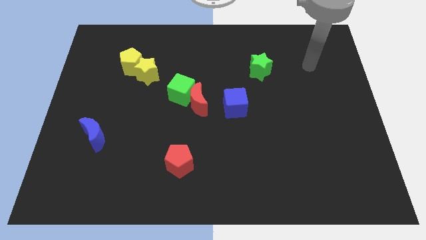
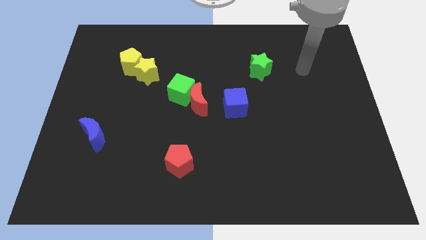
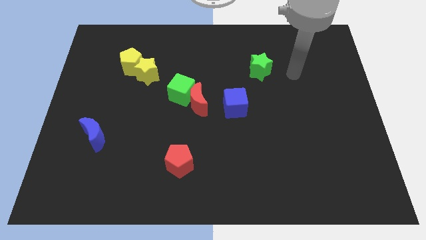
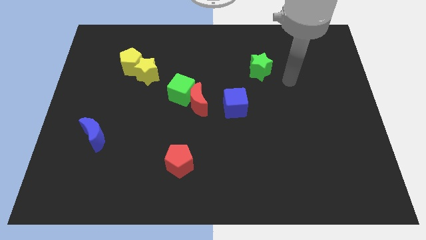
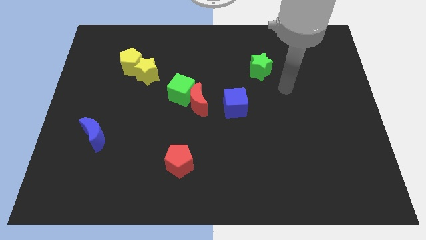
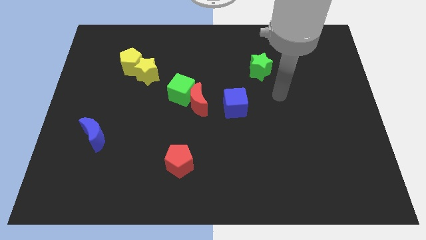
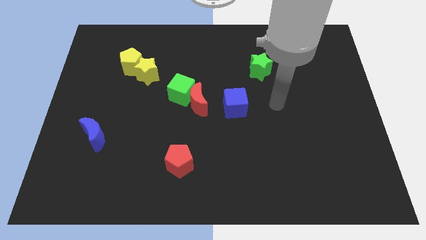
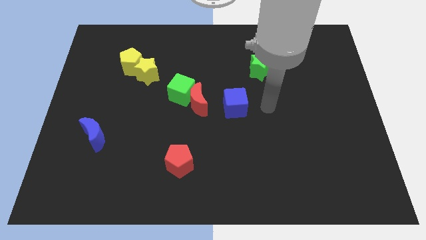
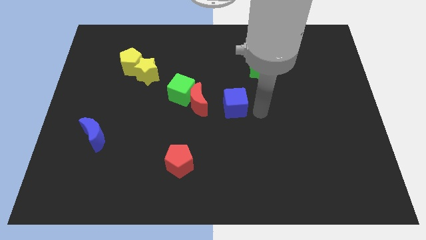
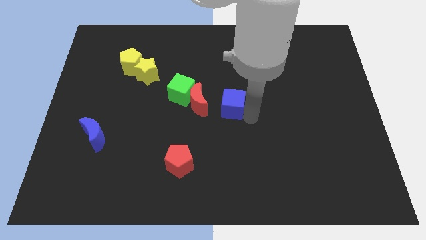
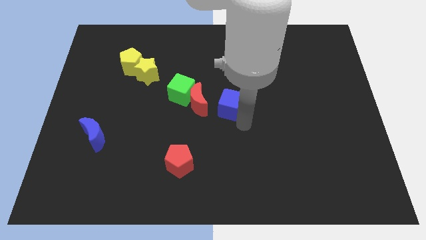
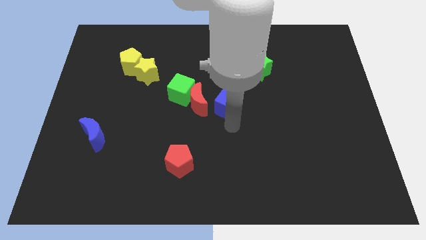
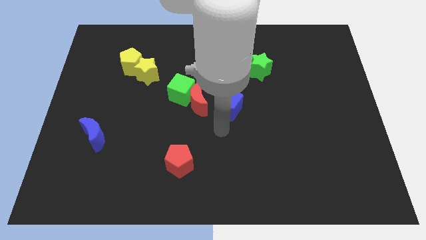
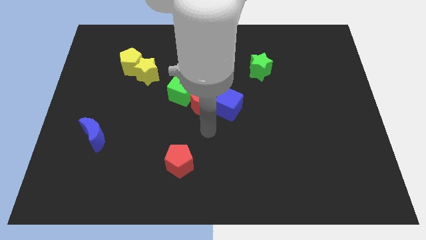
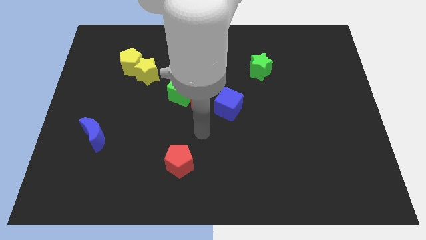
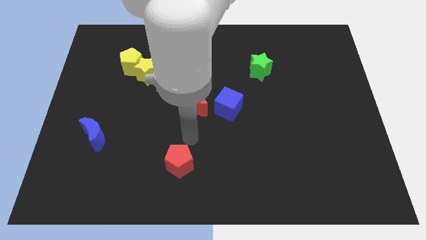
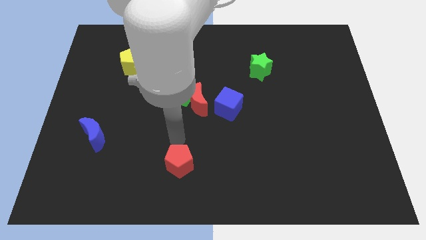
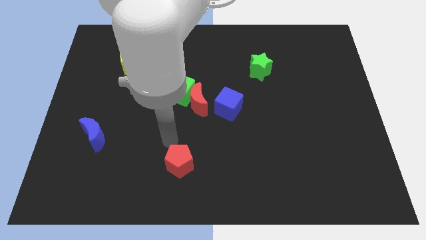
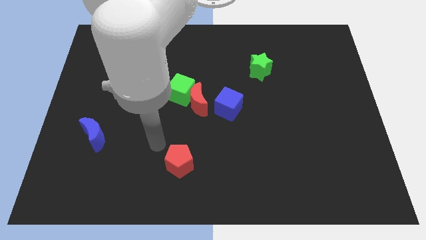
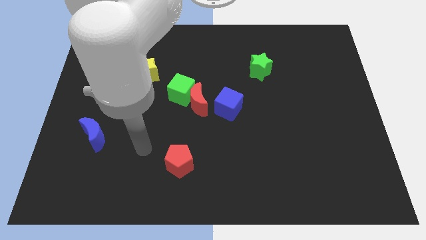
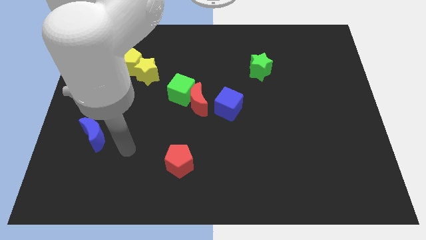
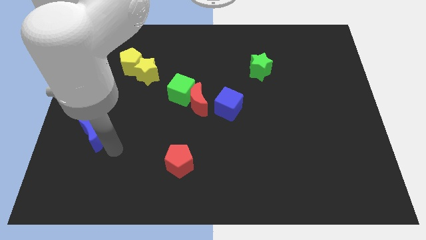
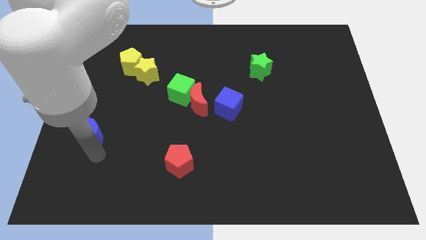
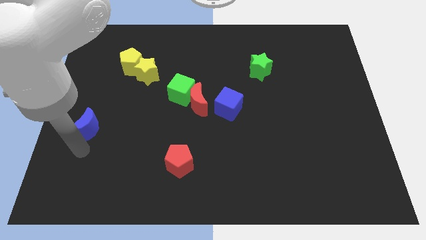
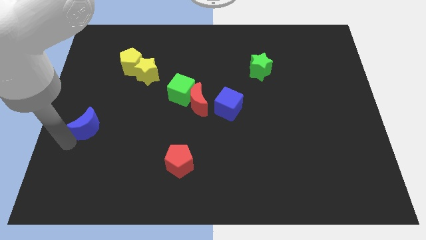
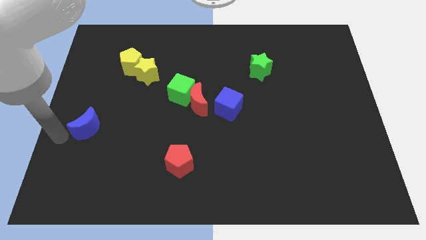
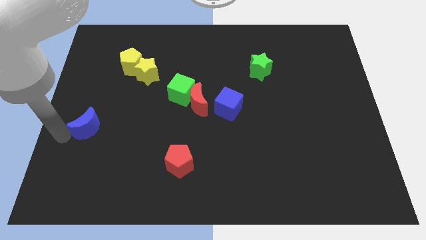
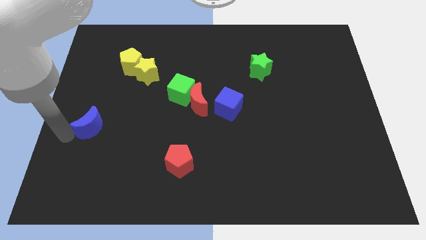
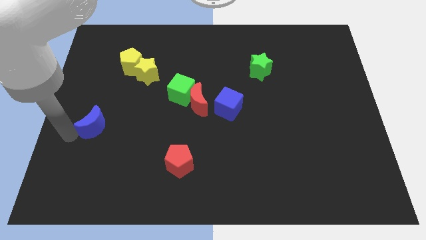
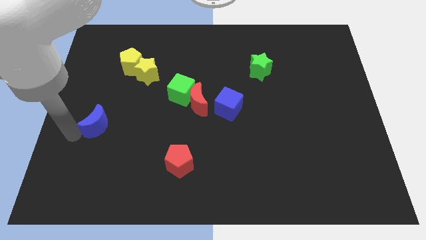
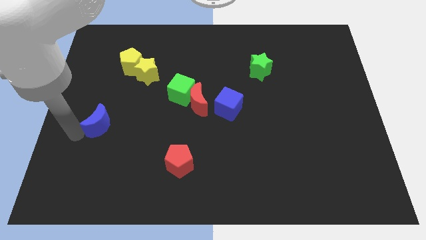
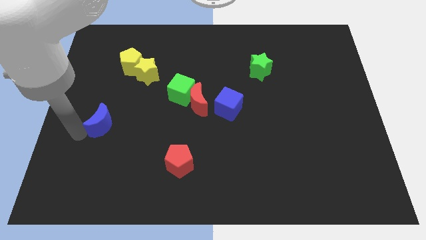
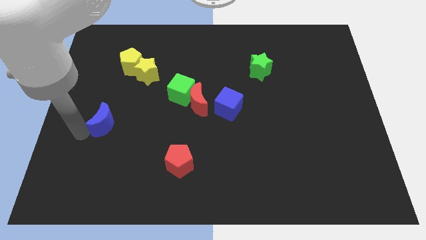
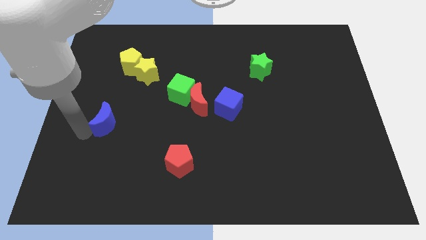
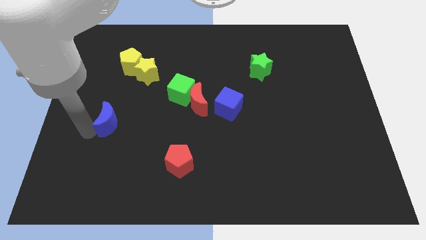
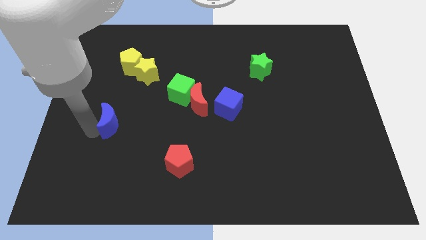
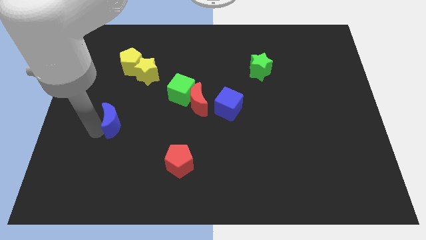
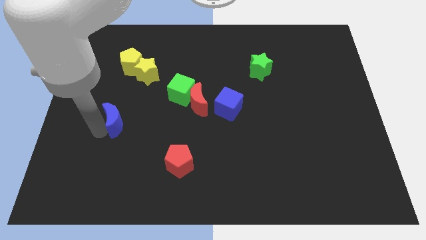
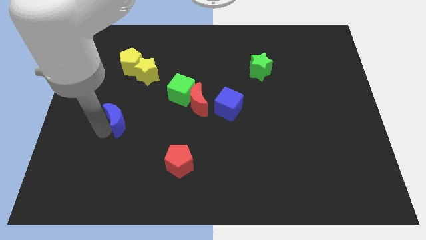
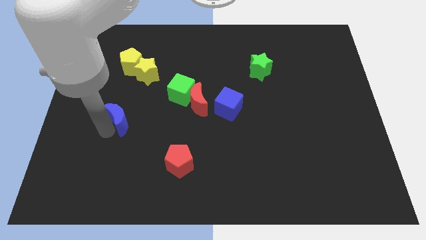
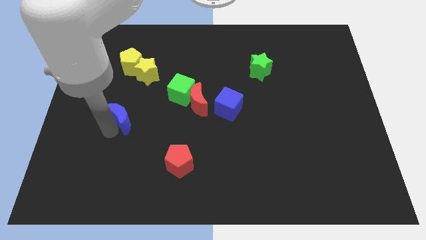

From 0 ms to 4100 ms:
slightly move the blue moon up and then right

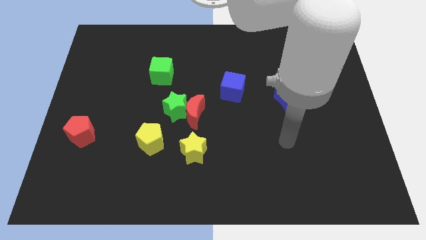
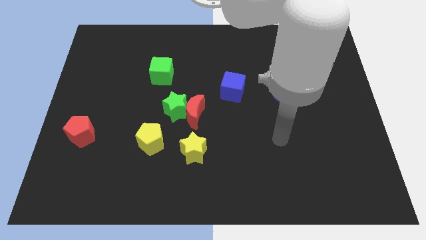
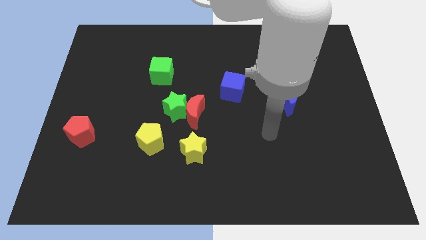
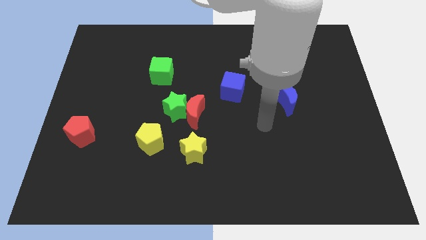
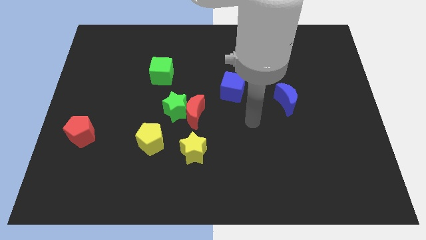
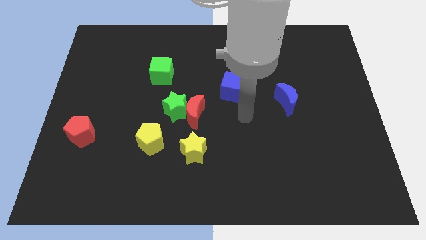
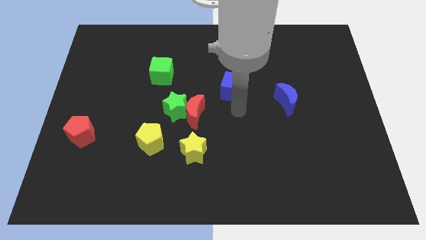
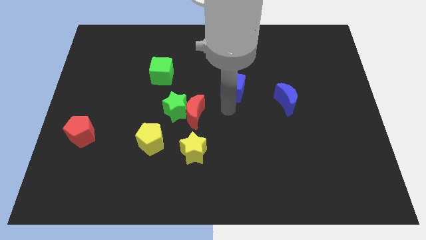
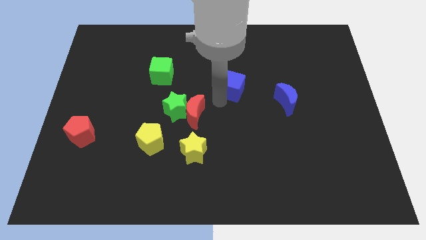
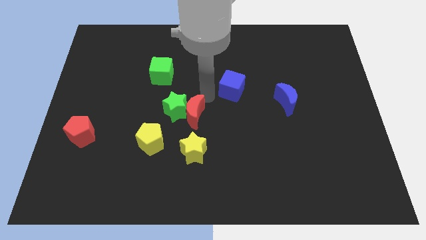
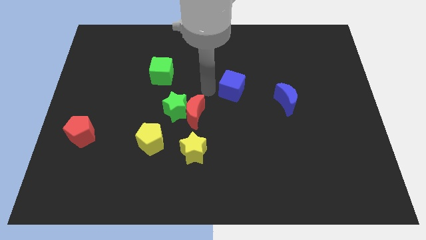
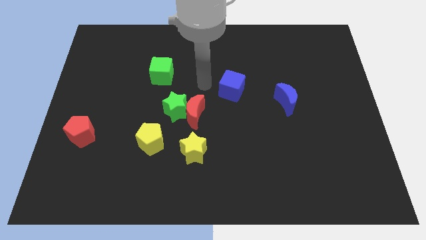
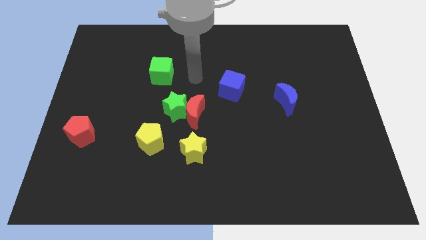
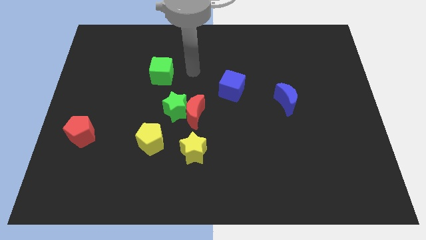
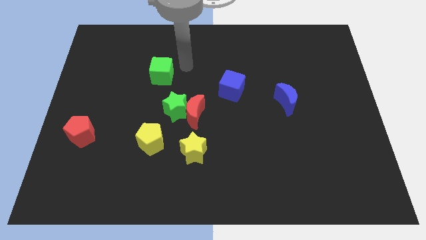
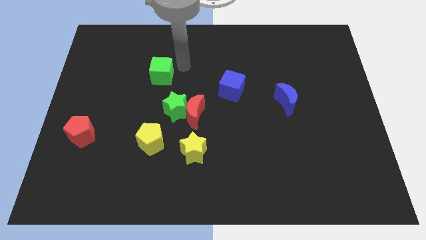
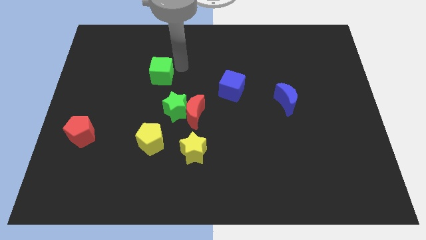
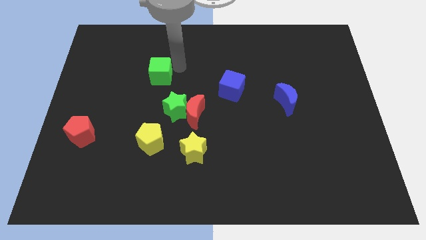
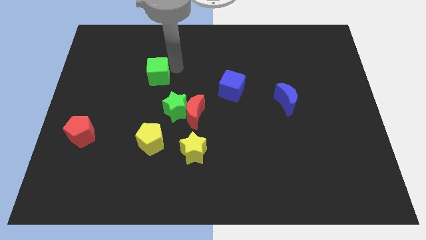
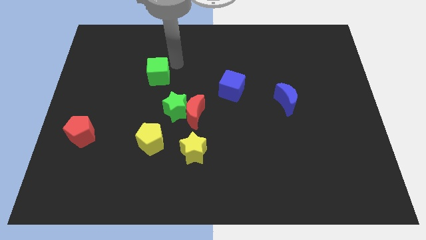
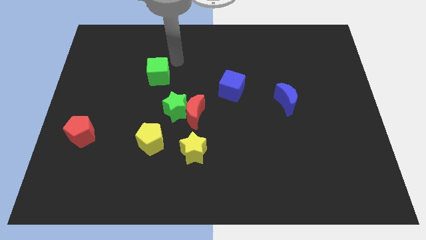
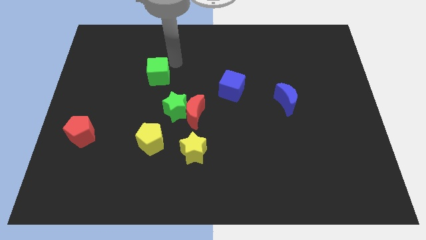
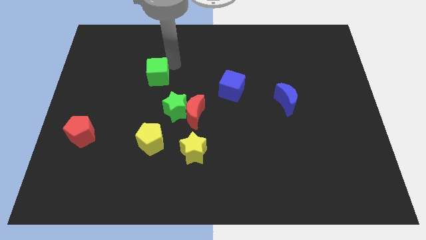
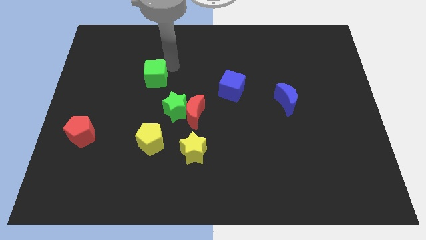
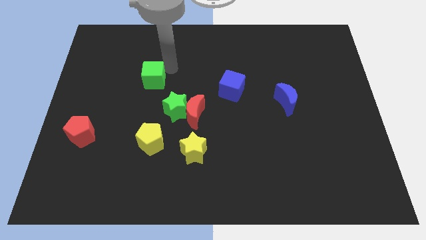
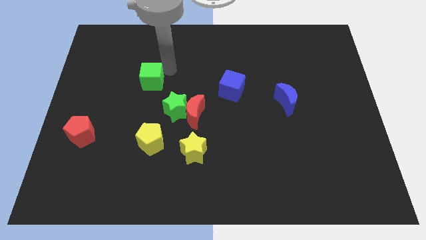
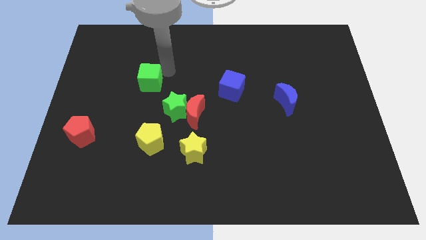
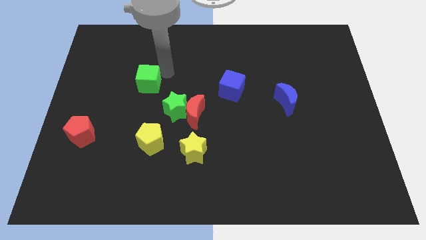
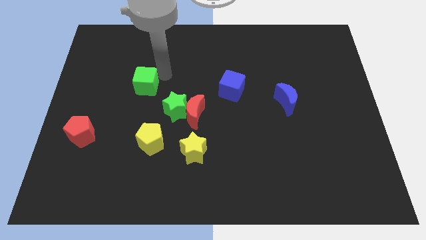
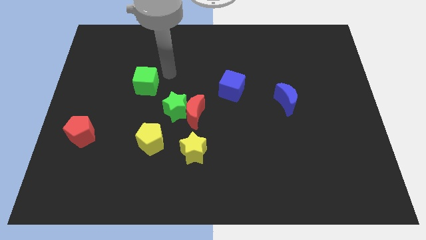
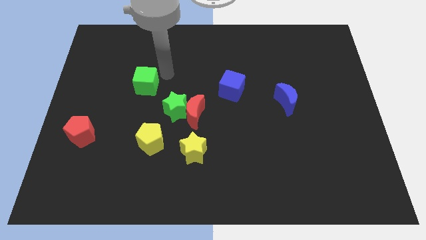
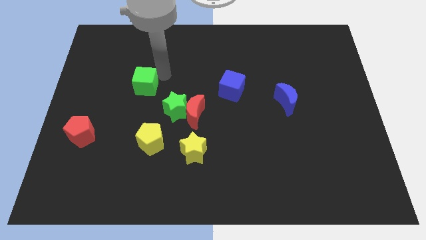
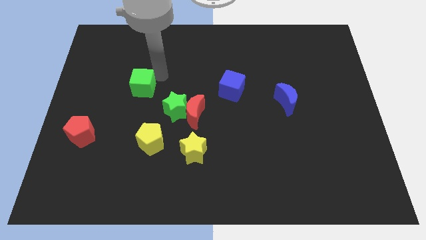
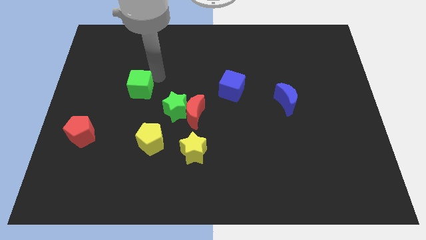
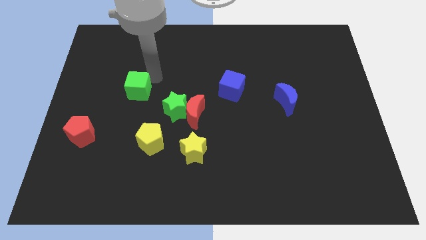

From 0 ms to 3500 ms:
push the green cube diagonally downwards and left a little

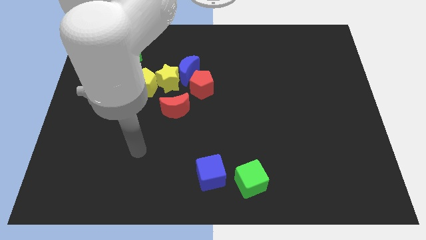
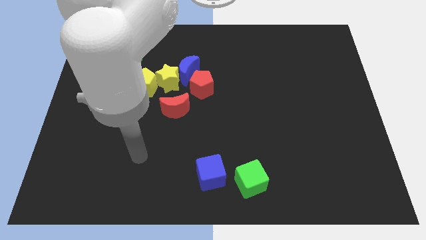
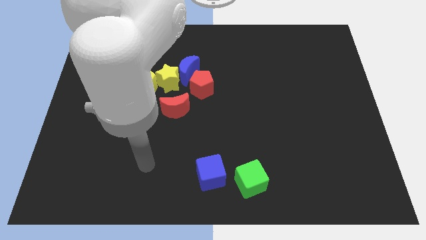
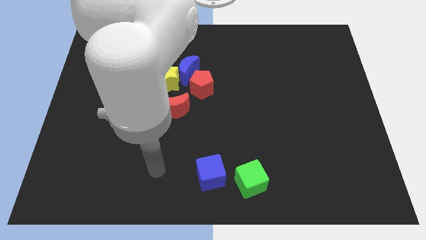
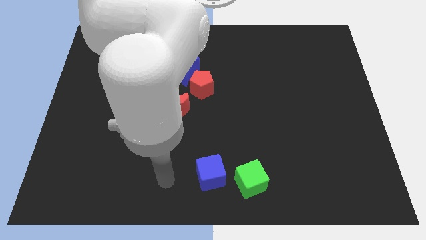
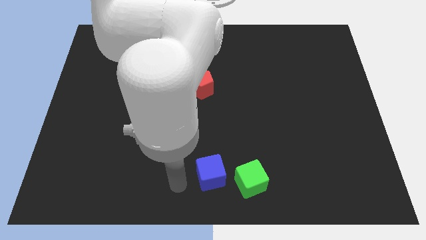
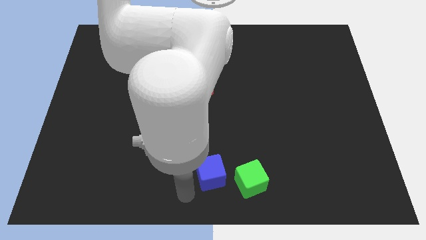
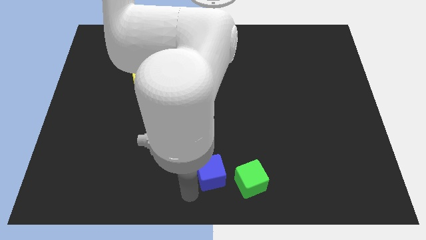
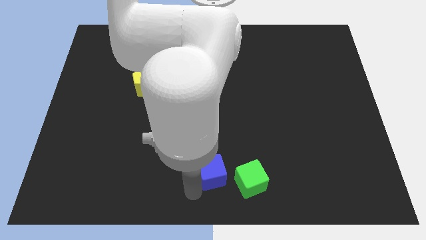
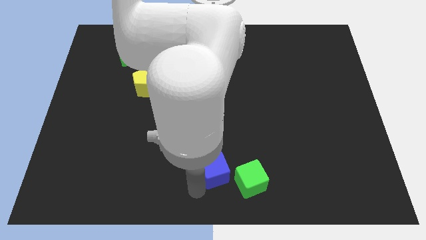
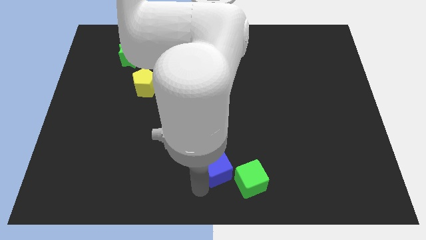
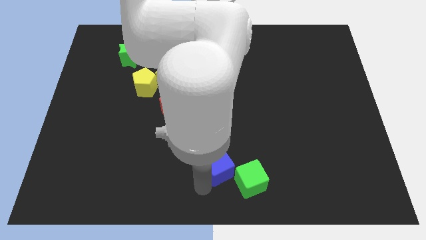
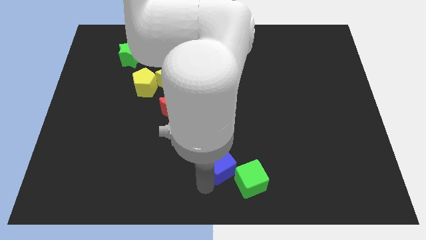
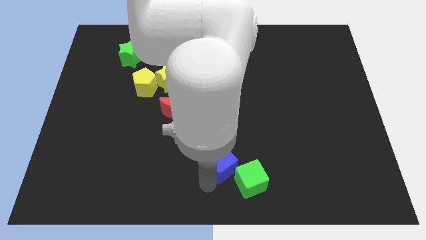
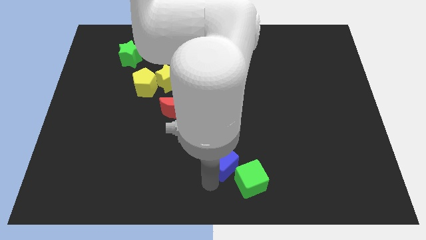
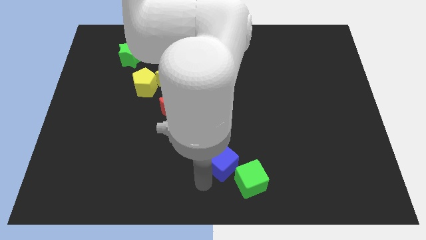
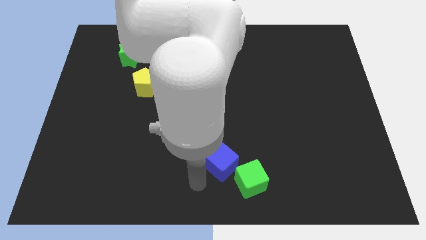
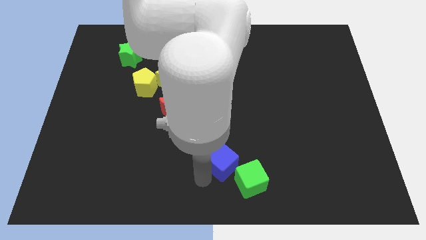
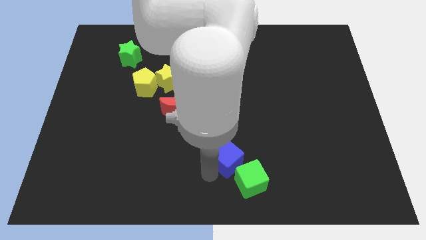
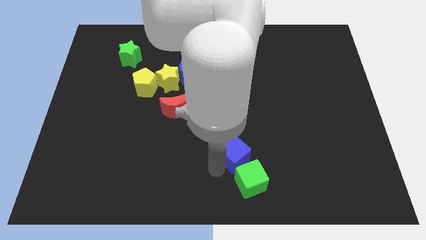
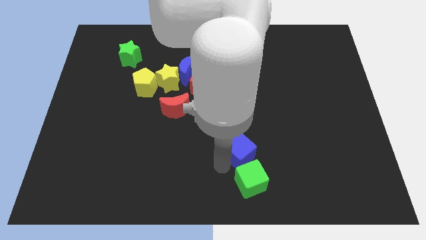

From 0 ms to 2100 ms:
push the blue cube up and then right a little bit
